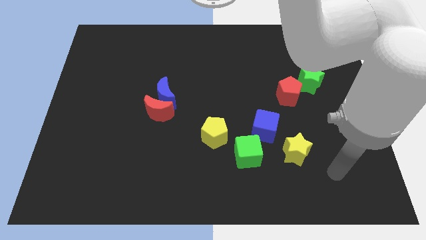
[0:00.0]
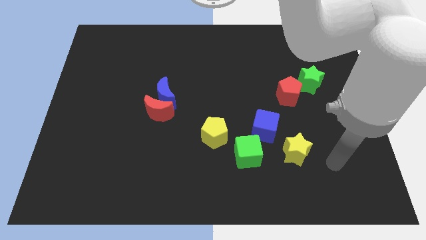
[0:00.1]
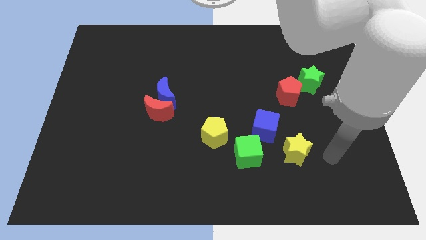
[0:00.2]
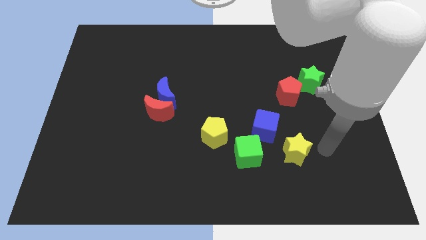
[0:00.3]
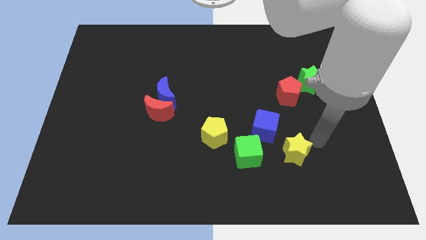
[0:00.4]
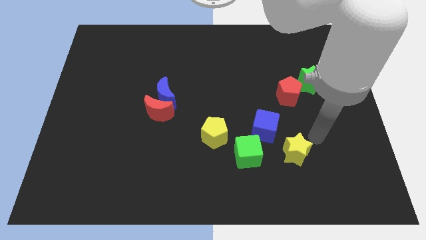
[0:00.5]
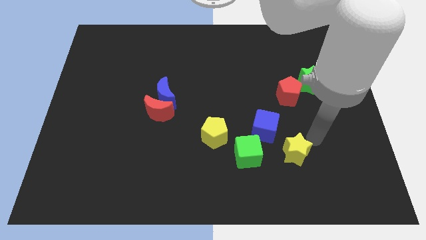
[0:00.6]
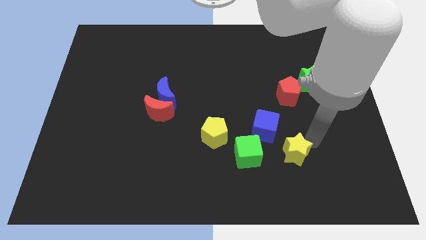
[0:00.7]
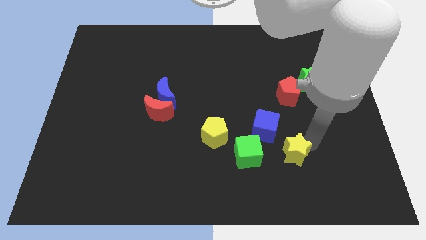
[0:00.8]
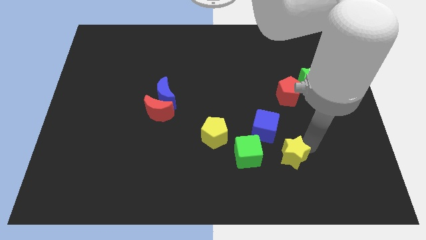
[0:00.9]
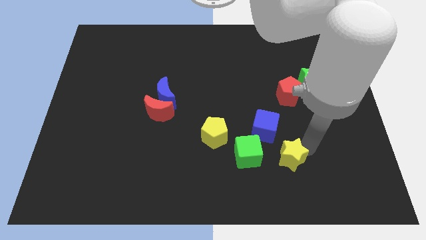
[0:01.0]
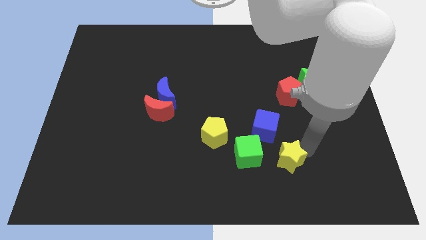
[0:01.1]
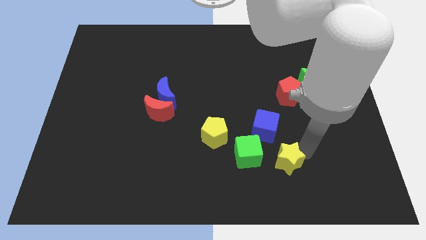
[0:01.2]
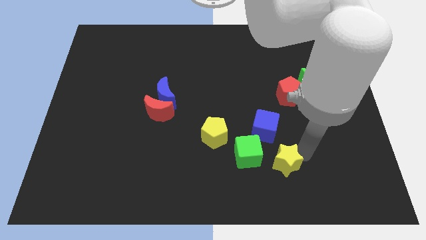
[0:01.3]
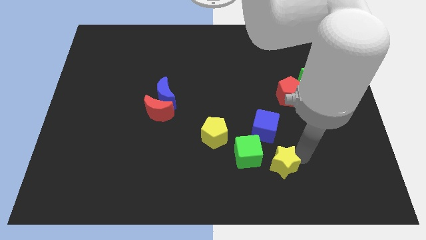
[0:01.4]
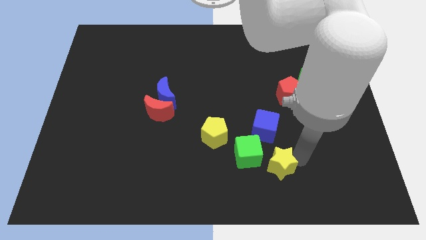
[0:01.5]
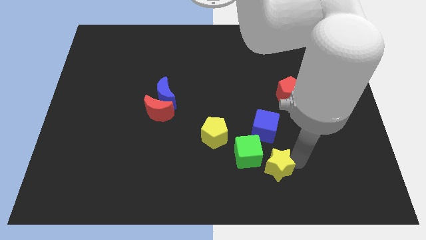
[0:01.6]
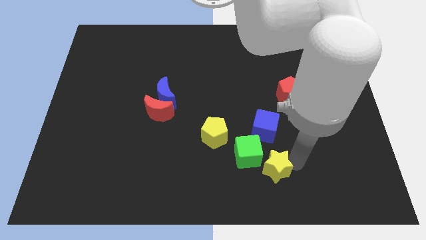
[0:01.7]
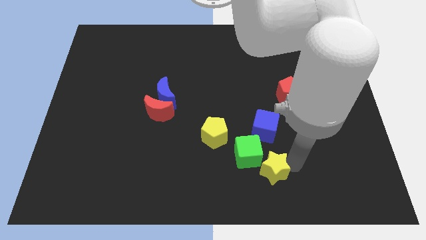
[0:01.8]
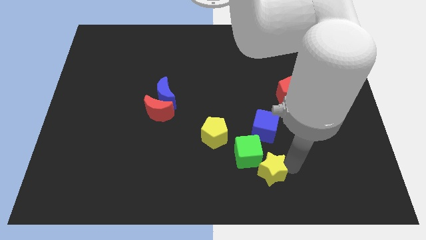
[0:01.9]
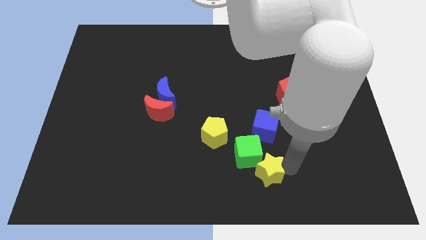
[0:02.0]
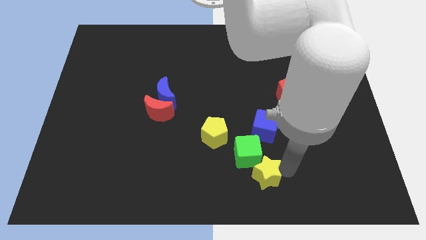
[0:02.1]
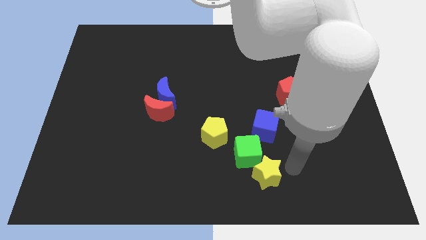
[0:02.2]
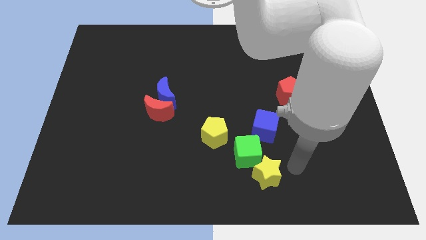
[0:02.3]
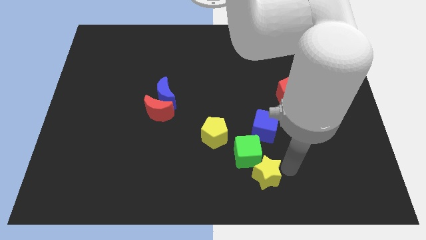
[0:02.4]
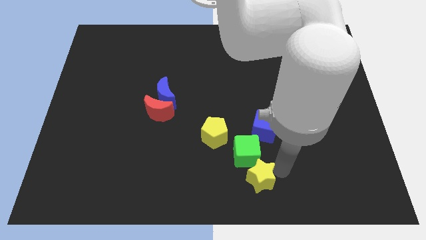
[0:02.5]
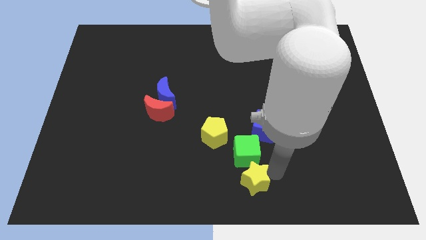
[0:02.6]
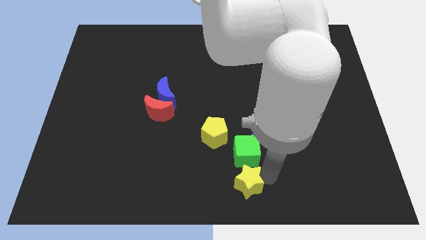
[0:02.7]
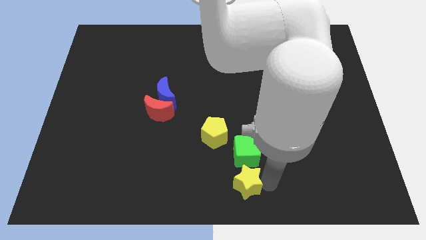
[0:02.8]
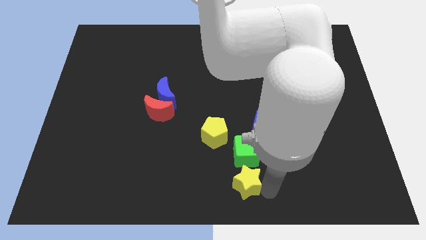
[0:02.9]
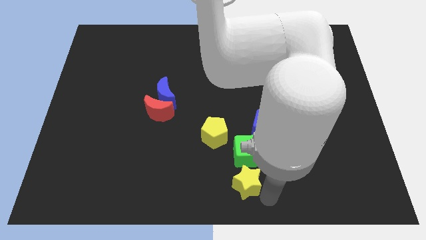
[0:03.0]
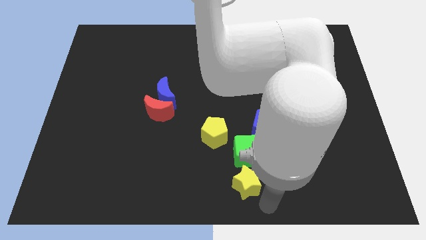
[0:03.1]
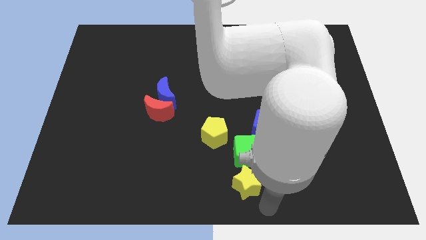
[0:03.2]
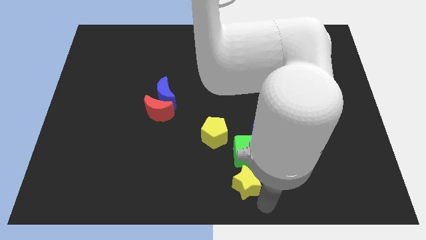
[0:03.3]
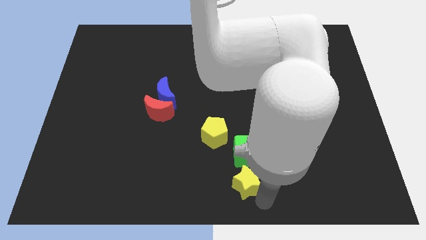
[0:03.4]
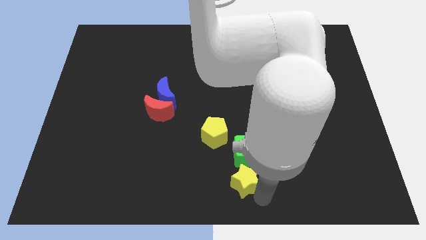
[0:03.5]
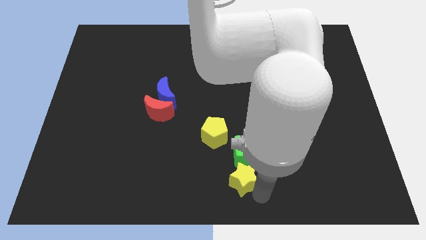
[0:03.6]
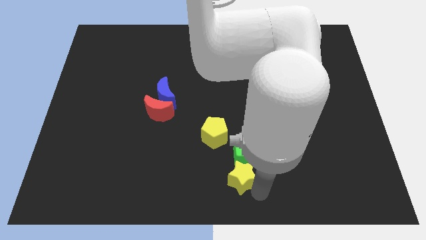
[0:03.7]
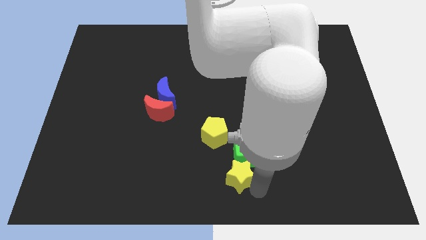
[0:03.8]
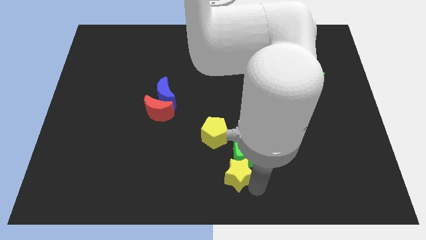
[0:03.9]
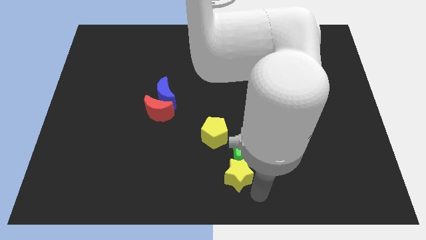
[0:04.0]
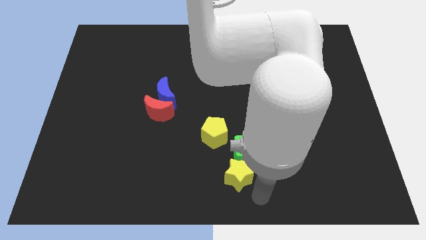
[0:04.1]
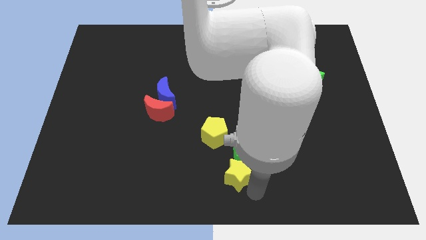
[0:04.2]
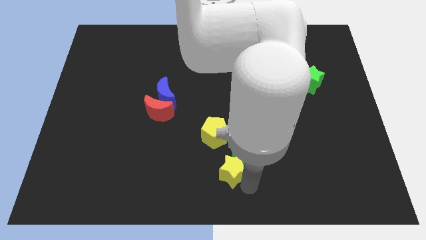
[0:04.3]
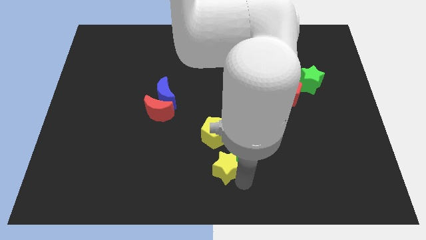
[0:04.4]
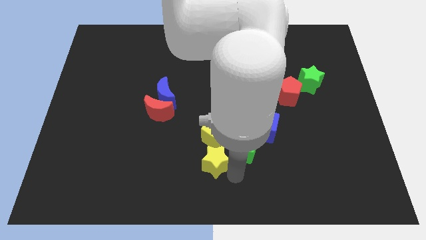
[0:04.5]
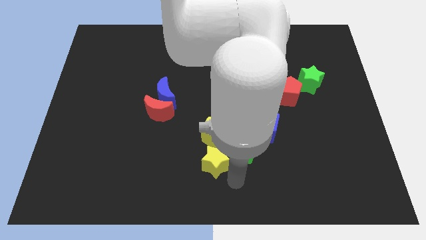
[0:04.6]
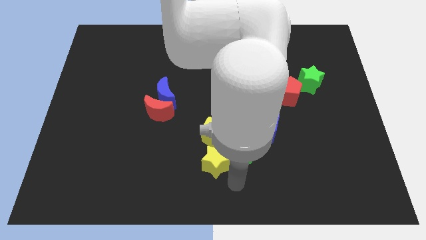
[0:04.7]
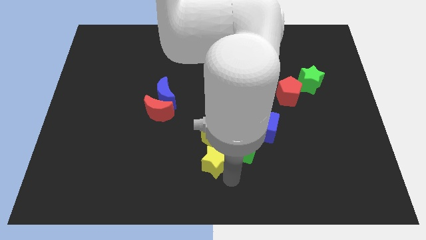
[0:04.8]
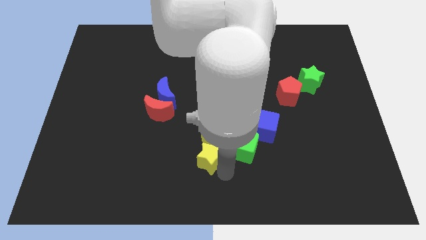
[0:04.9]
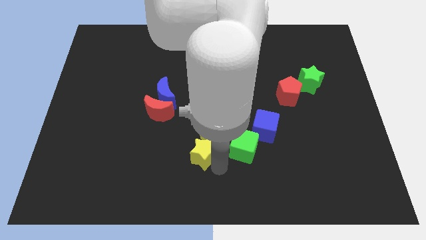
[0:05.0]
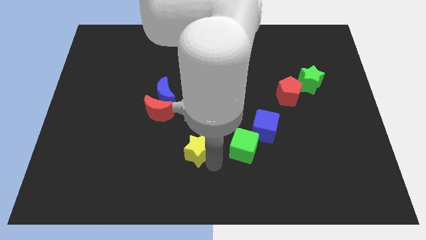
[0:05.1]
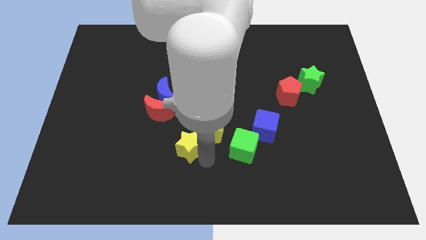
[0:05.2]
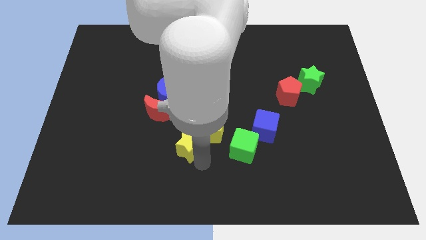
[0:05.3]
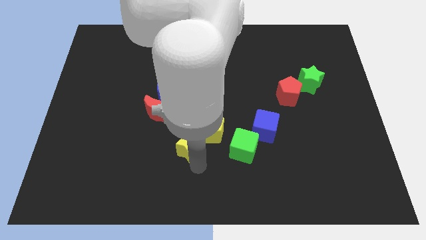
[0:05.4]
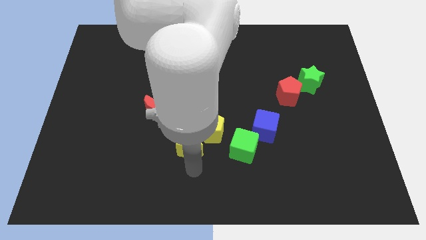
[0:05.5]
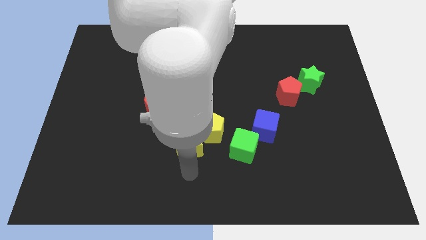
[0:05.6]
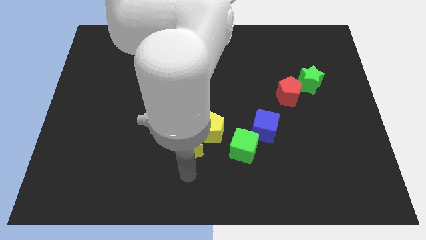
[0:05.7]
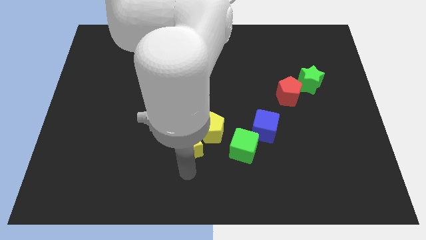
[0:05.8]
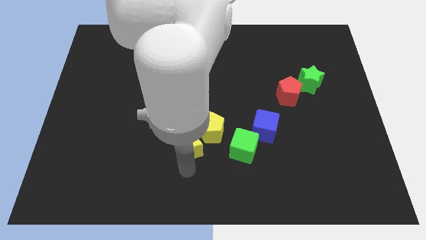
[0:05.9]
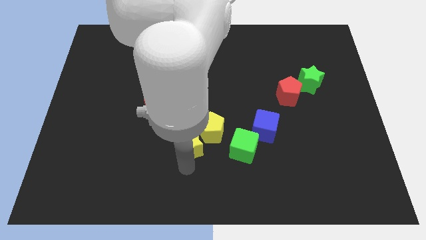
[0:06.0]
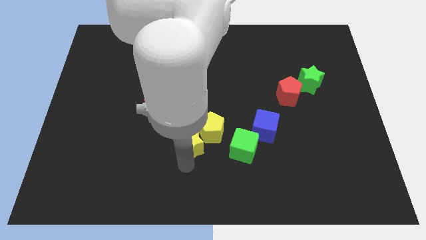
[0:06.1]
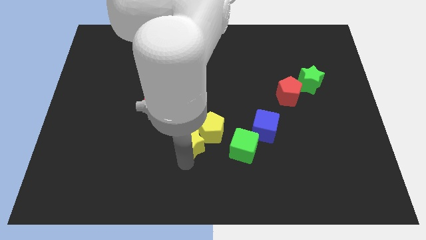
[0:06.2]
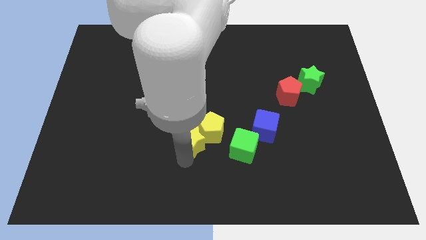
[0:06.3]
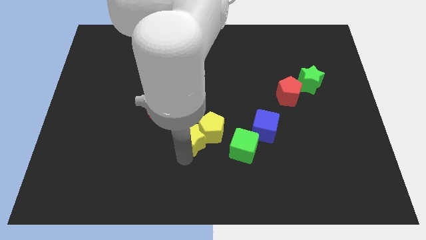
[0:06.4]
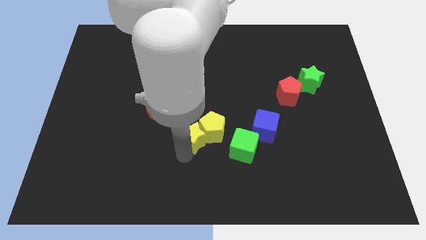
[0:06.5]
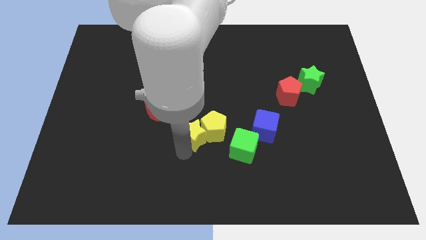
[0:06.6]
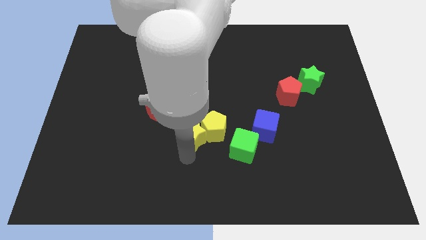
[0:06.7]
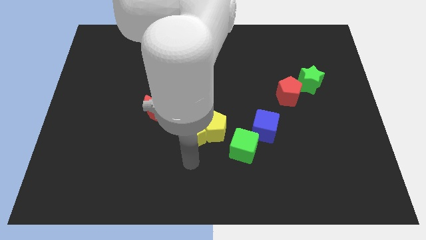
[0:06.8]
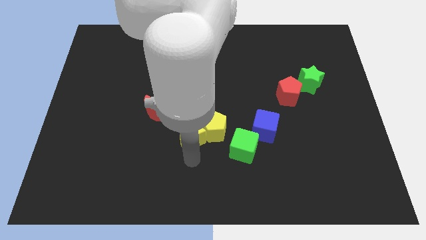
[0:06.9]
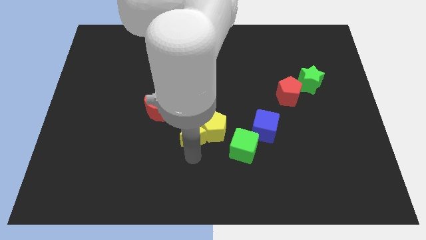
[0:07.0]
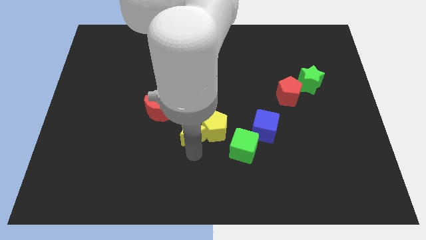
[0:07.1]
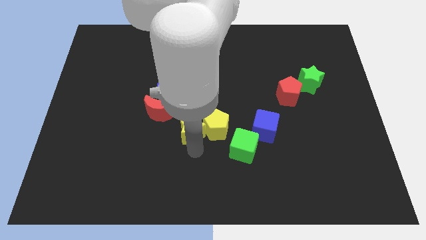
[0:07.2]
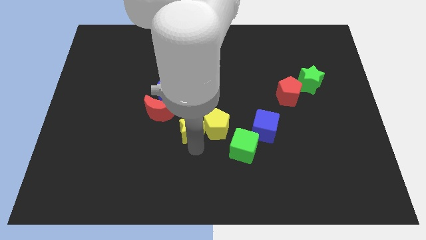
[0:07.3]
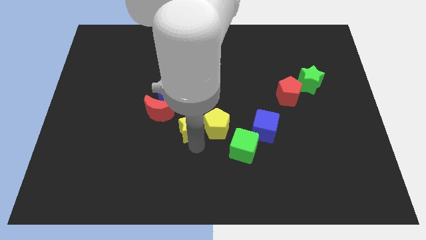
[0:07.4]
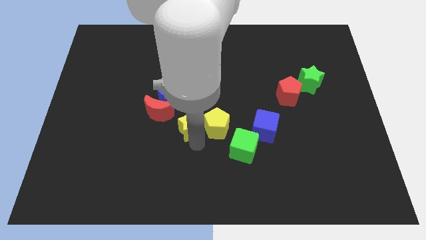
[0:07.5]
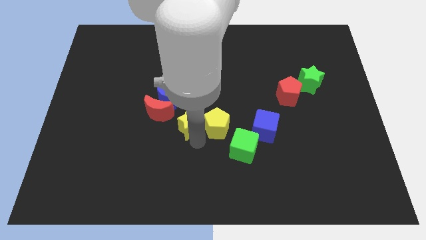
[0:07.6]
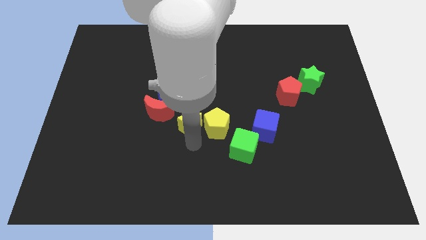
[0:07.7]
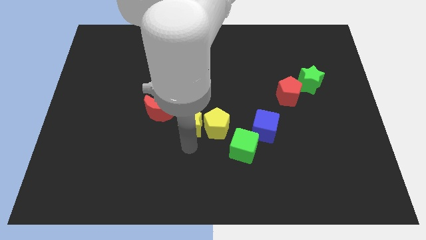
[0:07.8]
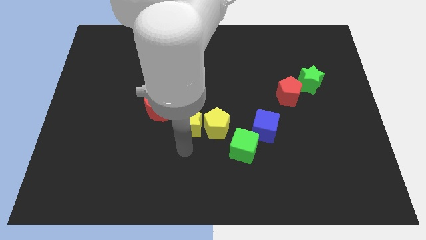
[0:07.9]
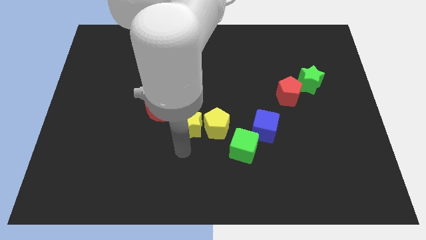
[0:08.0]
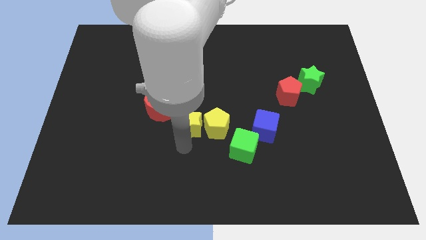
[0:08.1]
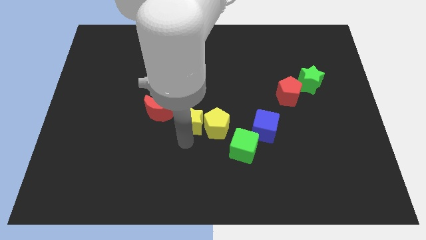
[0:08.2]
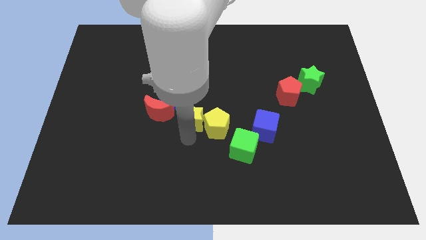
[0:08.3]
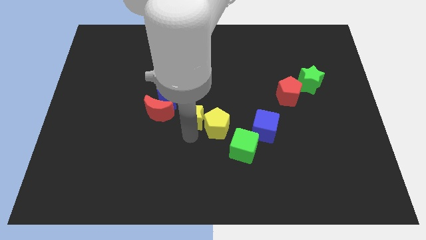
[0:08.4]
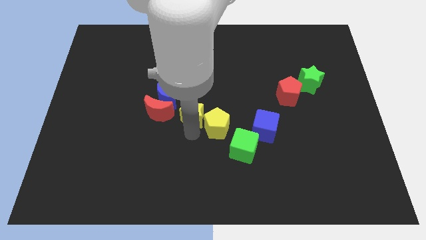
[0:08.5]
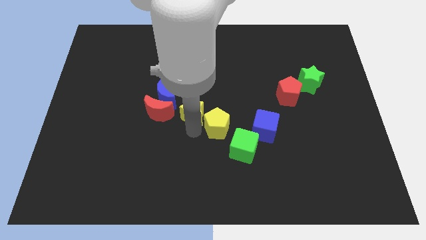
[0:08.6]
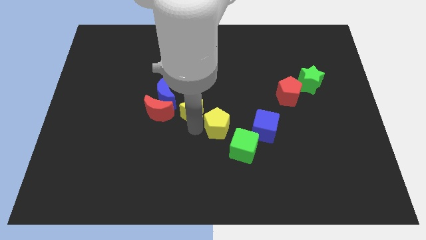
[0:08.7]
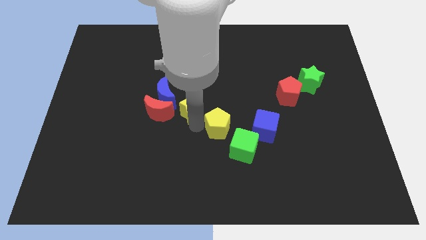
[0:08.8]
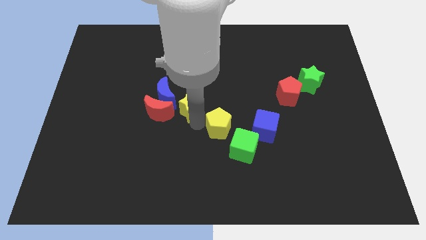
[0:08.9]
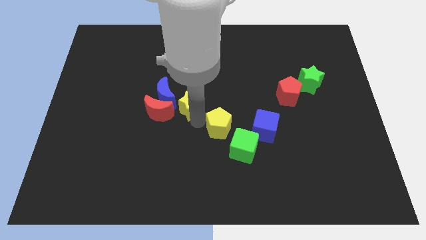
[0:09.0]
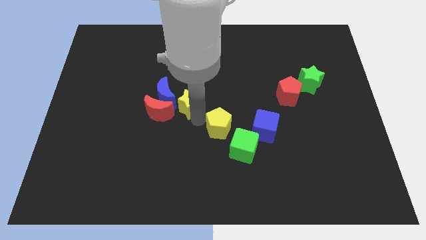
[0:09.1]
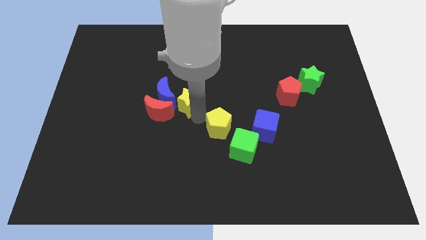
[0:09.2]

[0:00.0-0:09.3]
push the yellow star next to the blue moon
